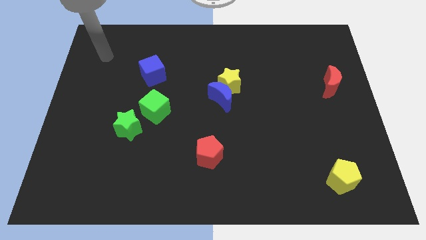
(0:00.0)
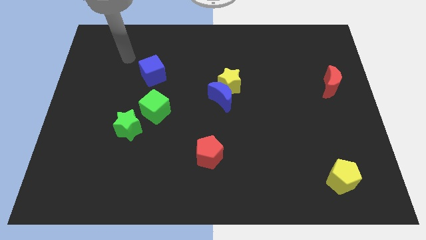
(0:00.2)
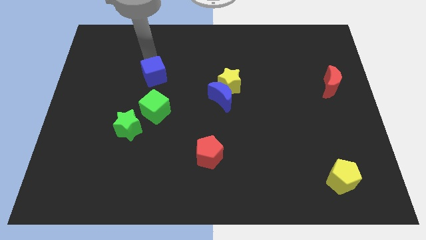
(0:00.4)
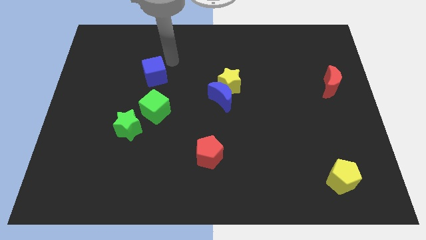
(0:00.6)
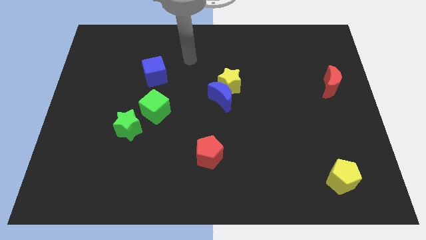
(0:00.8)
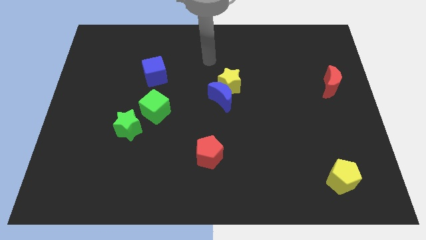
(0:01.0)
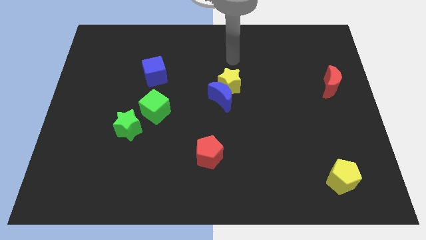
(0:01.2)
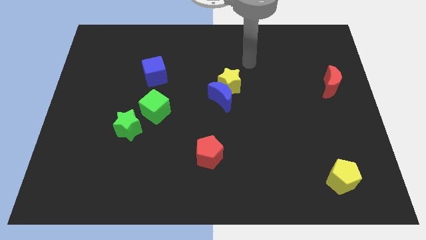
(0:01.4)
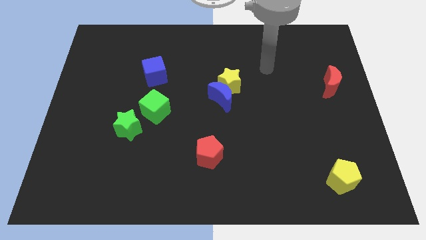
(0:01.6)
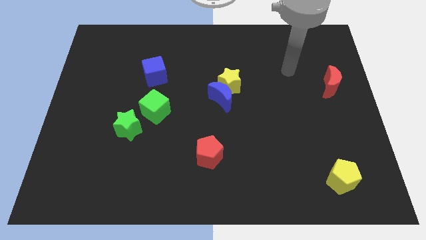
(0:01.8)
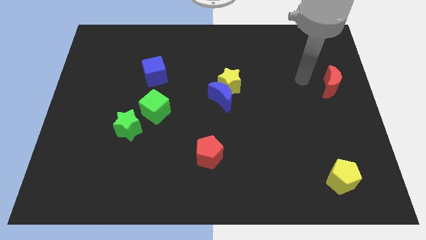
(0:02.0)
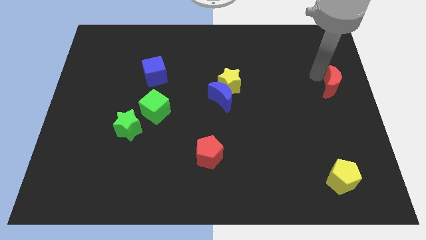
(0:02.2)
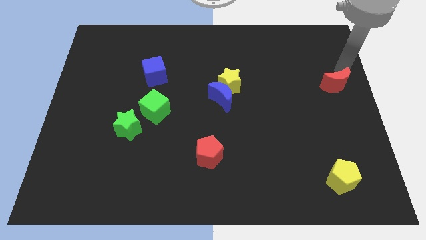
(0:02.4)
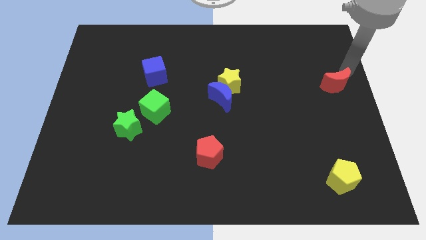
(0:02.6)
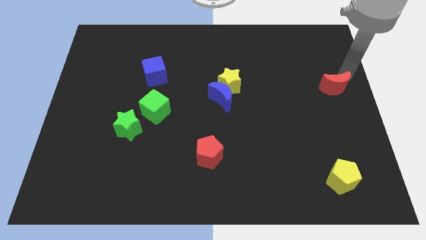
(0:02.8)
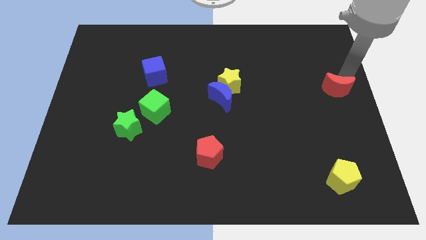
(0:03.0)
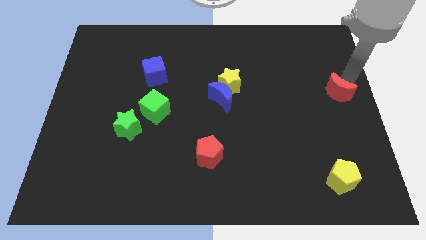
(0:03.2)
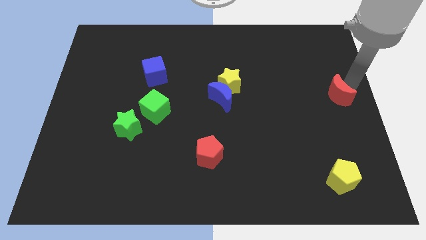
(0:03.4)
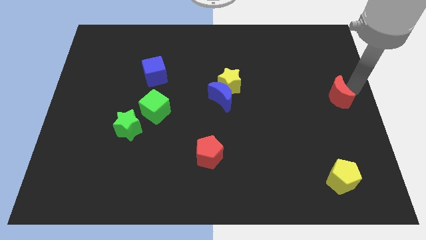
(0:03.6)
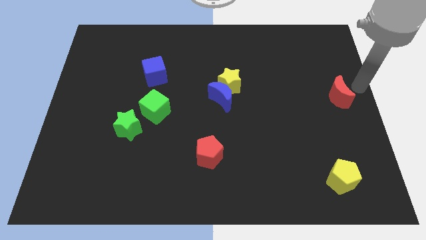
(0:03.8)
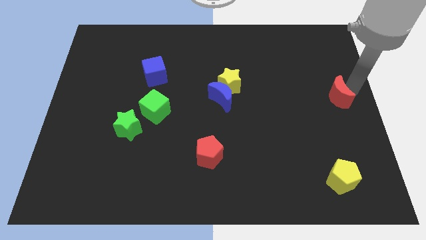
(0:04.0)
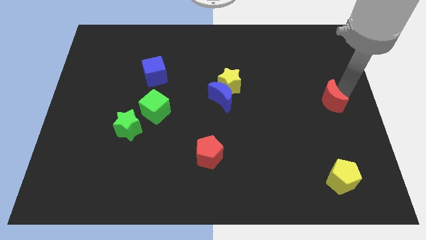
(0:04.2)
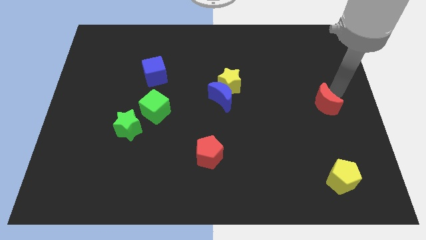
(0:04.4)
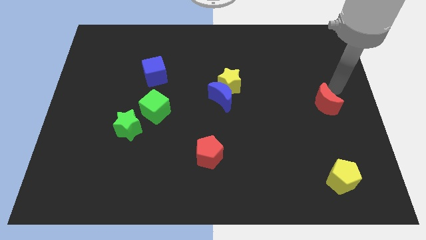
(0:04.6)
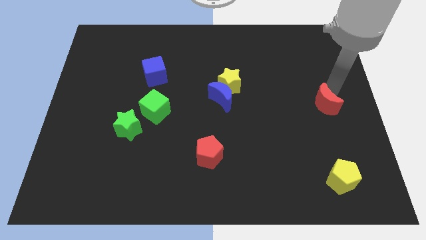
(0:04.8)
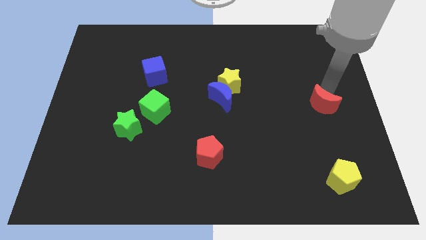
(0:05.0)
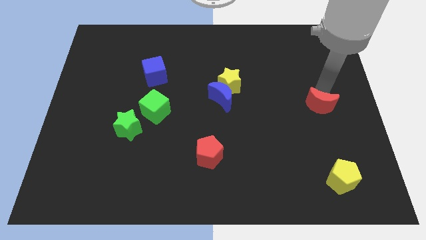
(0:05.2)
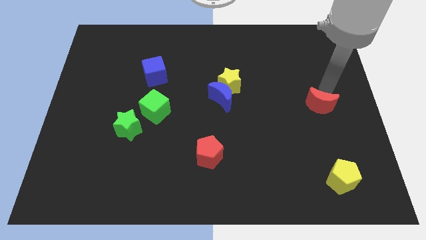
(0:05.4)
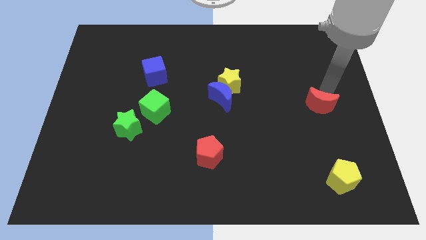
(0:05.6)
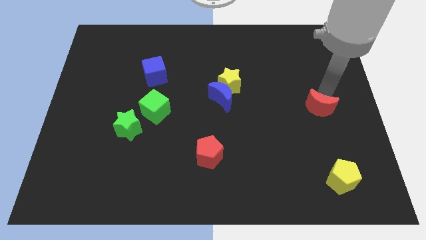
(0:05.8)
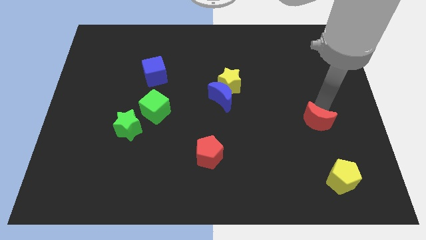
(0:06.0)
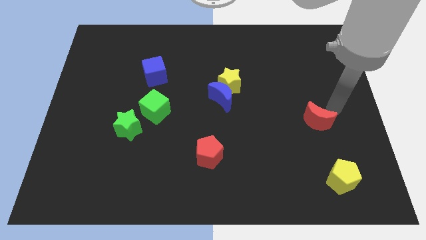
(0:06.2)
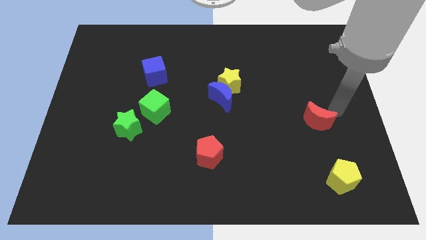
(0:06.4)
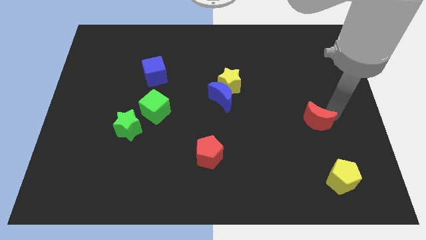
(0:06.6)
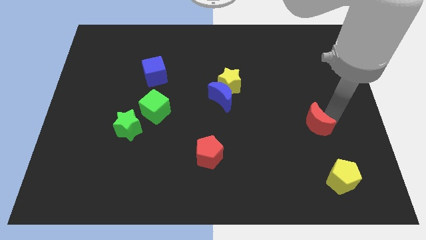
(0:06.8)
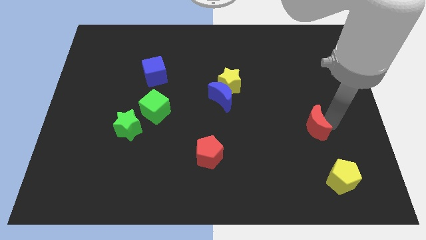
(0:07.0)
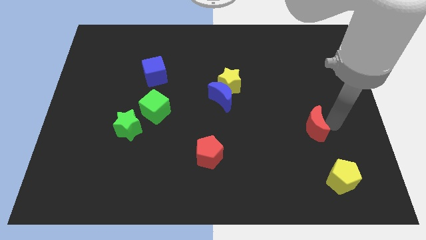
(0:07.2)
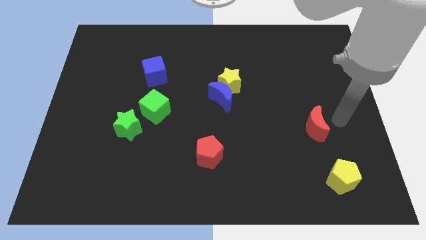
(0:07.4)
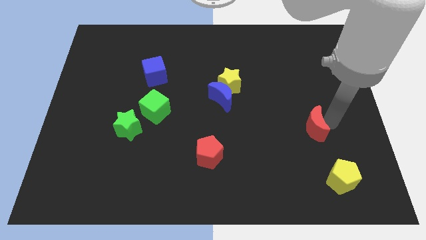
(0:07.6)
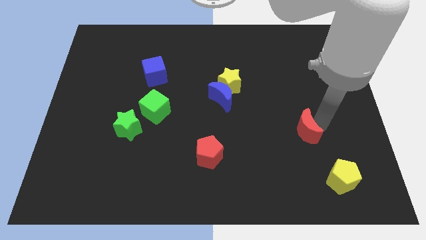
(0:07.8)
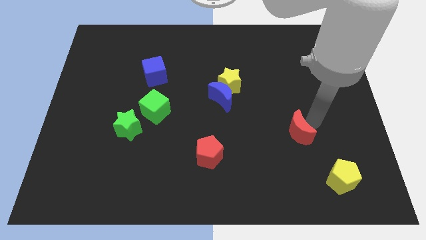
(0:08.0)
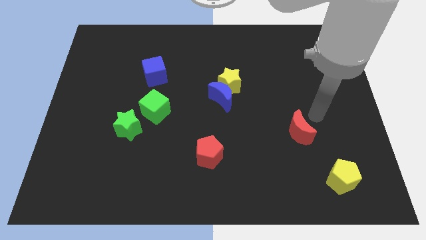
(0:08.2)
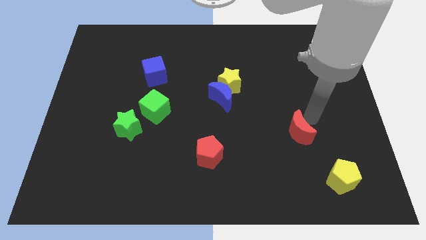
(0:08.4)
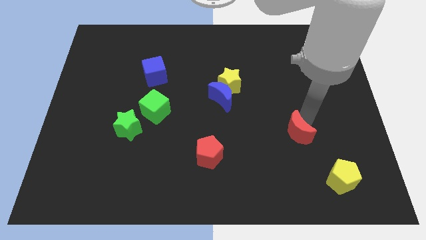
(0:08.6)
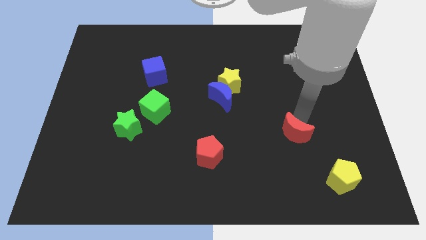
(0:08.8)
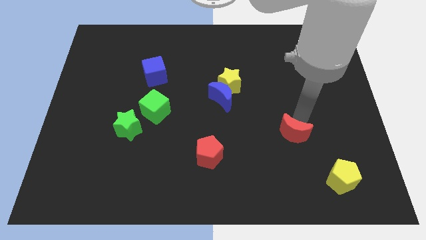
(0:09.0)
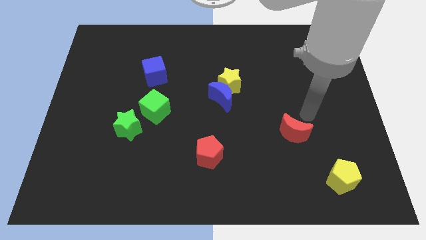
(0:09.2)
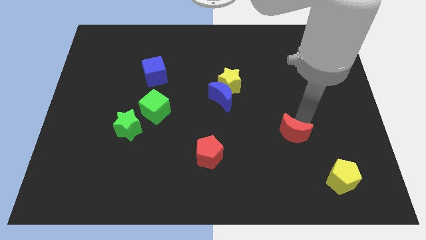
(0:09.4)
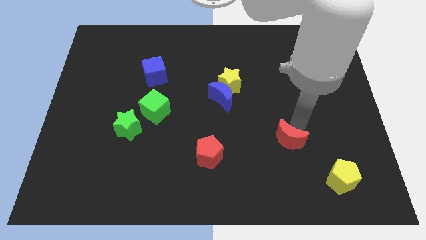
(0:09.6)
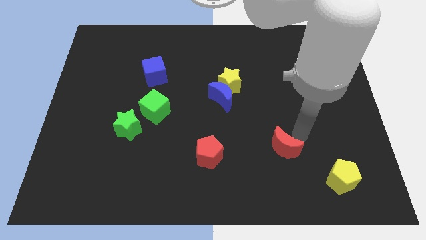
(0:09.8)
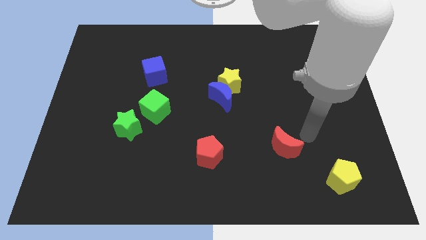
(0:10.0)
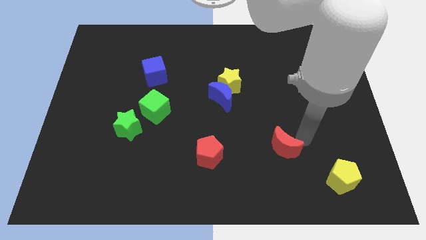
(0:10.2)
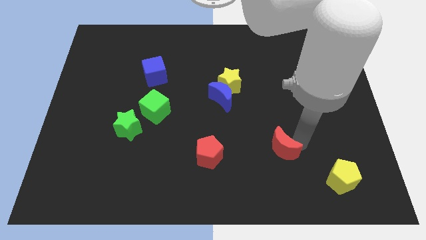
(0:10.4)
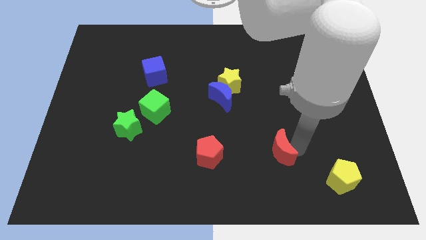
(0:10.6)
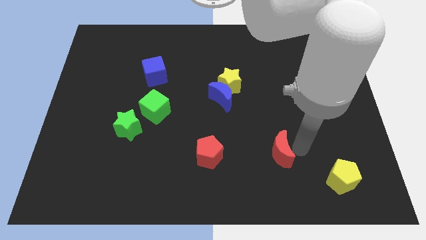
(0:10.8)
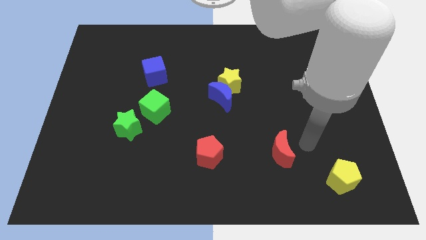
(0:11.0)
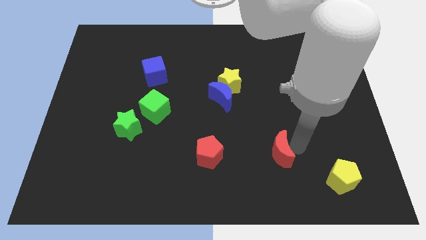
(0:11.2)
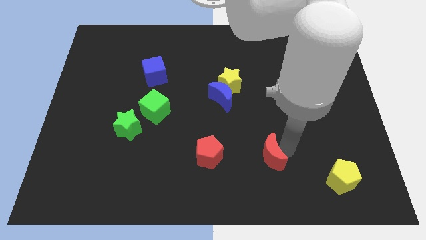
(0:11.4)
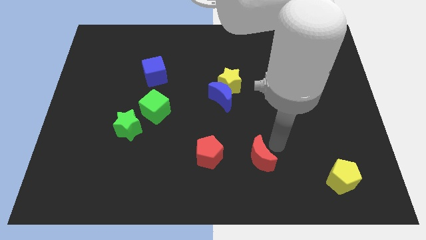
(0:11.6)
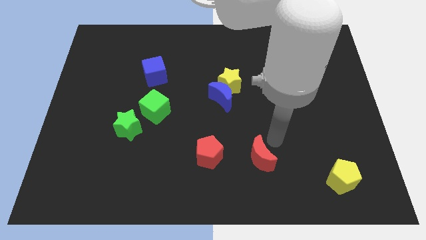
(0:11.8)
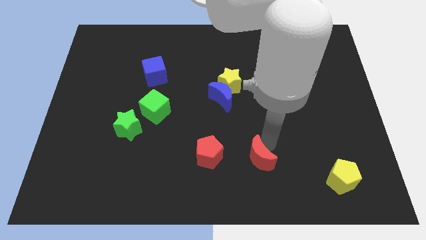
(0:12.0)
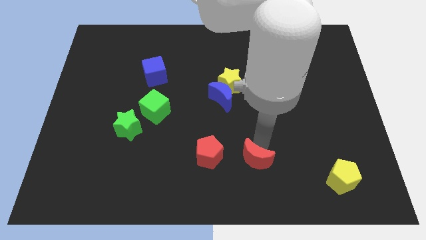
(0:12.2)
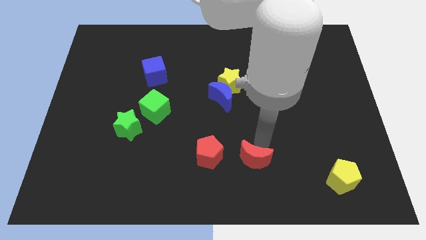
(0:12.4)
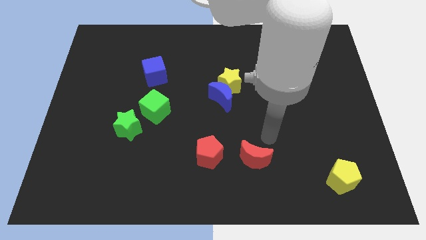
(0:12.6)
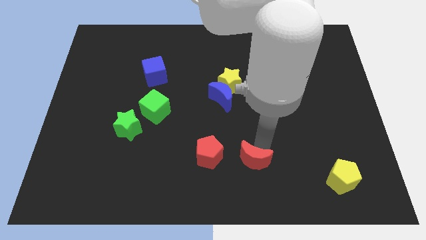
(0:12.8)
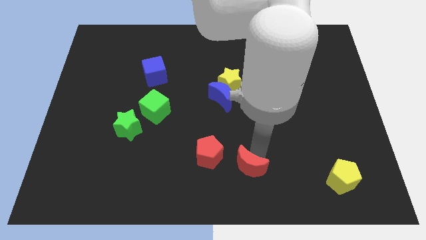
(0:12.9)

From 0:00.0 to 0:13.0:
put the red moon to the bottom side

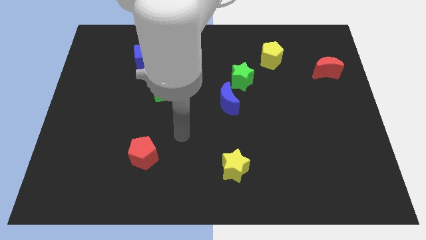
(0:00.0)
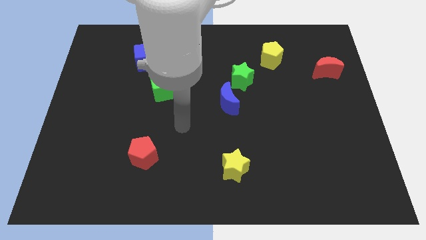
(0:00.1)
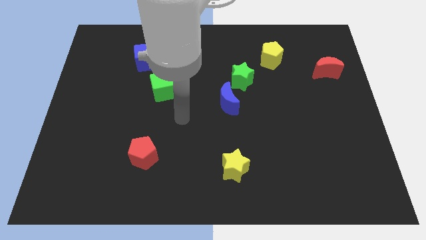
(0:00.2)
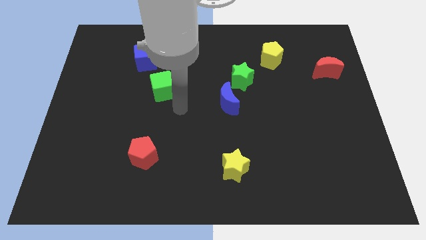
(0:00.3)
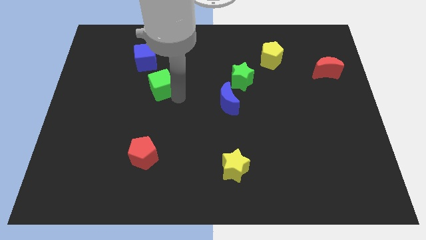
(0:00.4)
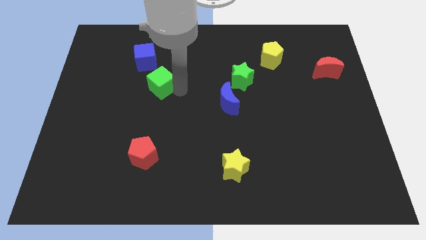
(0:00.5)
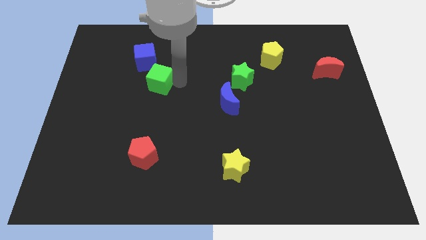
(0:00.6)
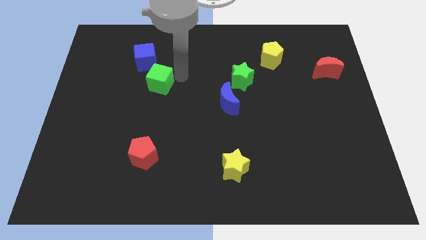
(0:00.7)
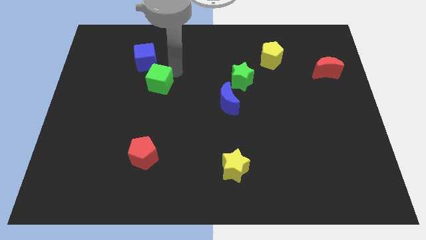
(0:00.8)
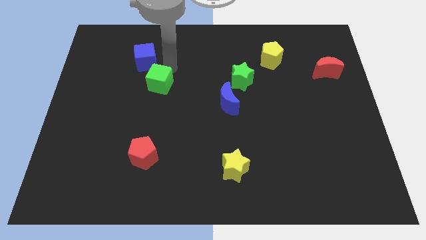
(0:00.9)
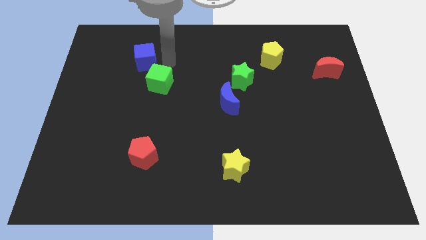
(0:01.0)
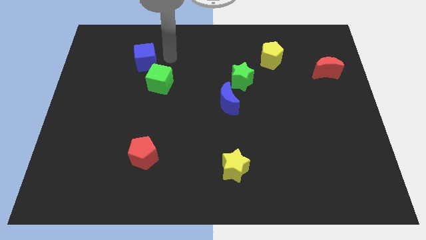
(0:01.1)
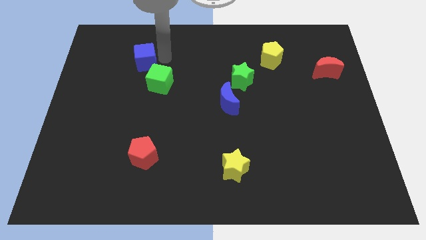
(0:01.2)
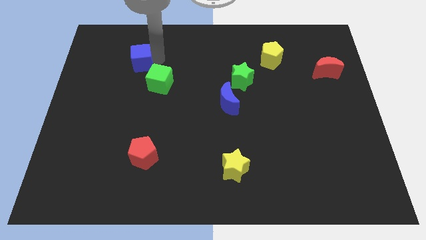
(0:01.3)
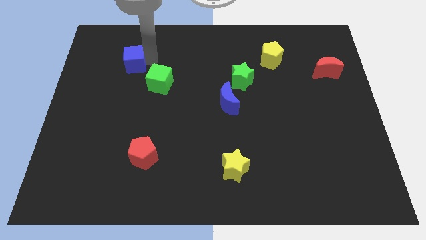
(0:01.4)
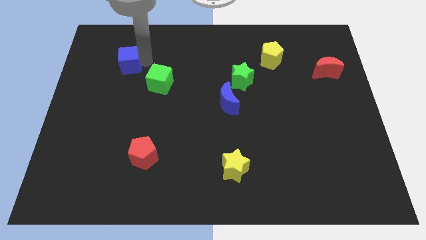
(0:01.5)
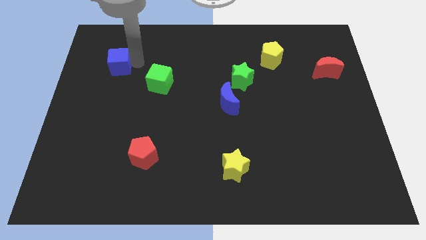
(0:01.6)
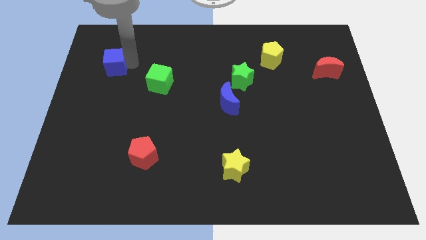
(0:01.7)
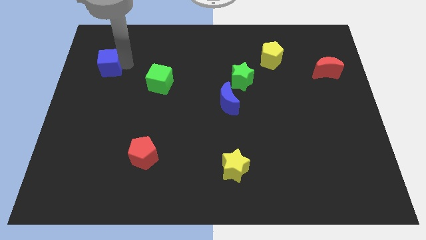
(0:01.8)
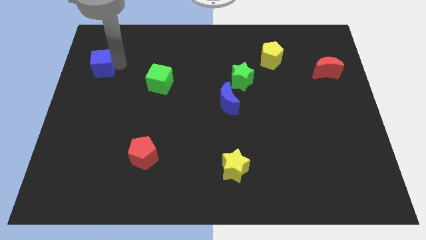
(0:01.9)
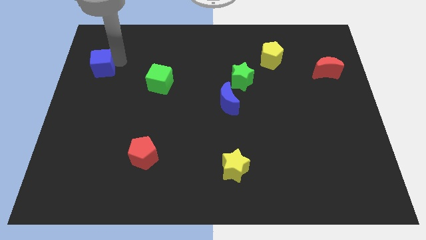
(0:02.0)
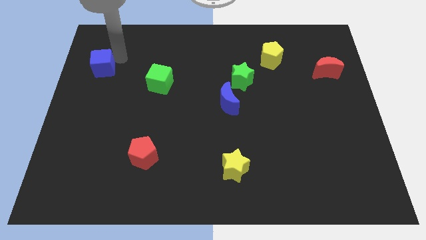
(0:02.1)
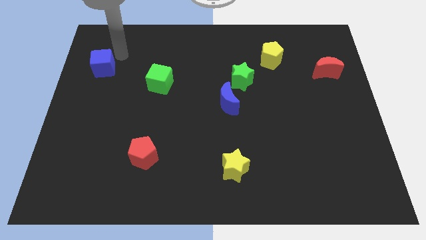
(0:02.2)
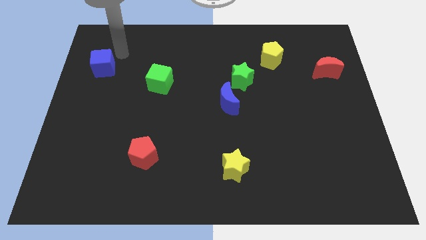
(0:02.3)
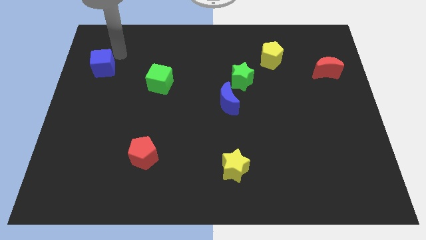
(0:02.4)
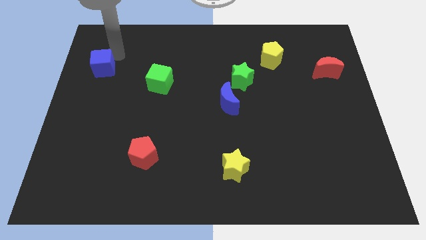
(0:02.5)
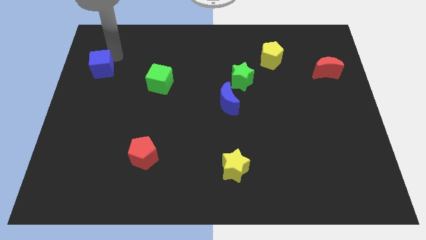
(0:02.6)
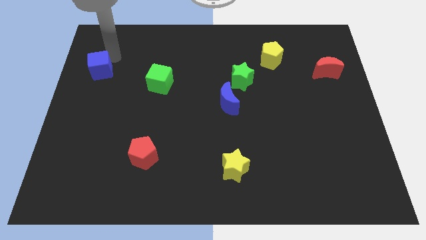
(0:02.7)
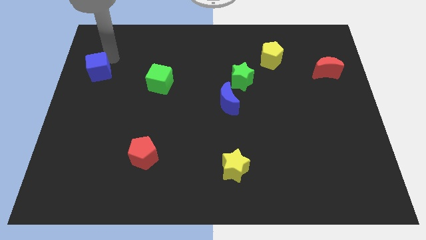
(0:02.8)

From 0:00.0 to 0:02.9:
put the blue cube to the left side of the board
